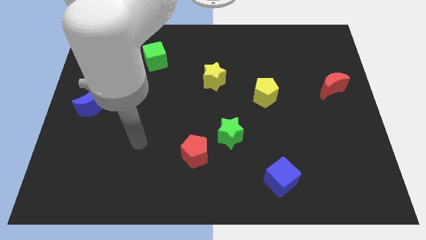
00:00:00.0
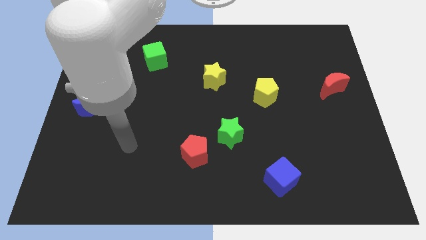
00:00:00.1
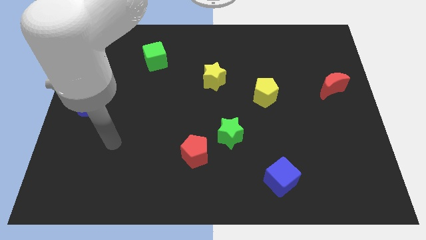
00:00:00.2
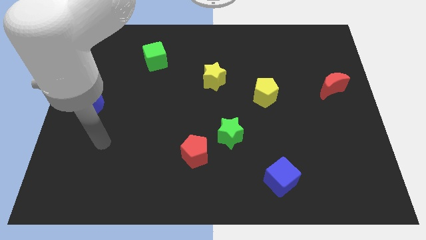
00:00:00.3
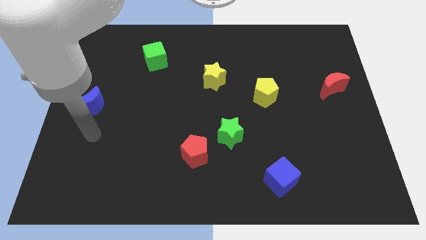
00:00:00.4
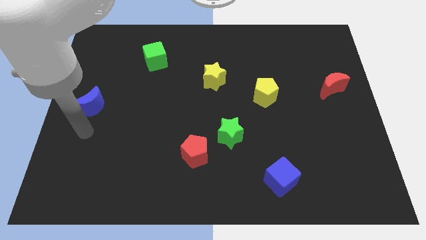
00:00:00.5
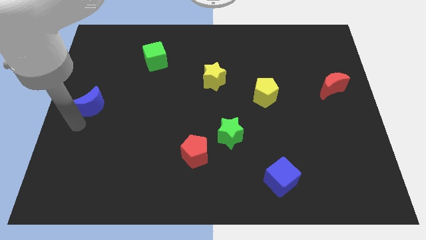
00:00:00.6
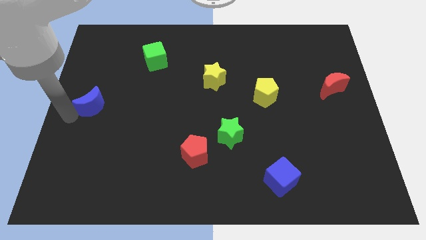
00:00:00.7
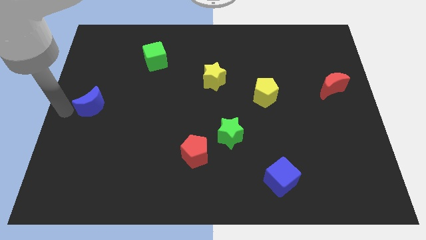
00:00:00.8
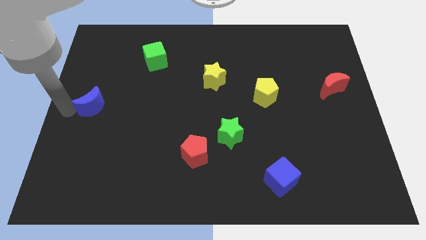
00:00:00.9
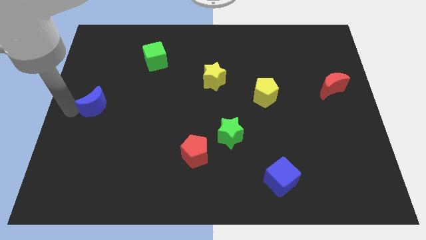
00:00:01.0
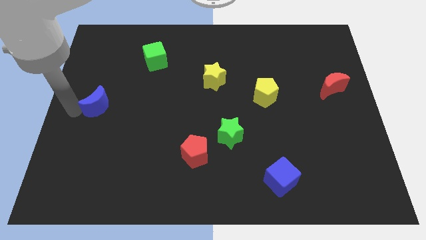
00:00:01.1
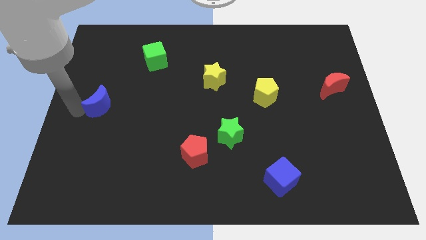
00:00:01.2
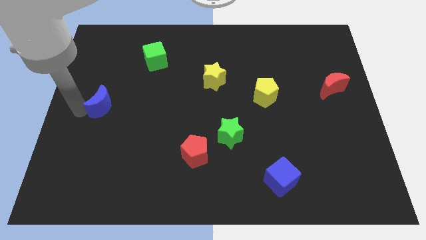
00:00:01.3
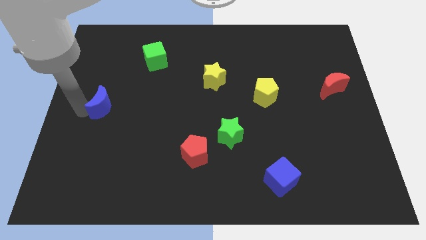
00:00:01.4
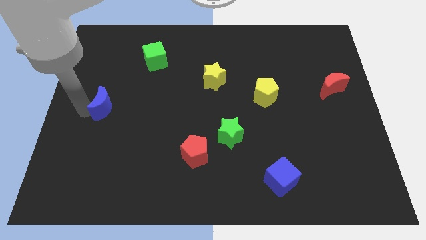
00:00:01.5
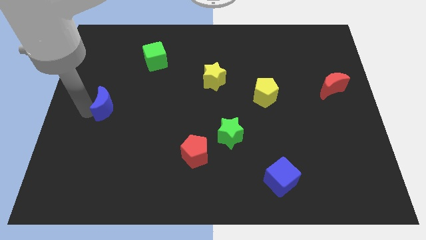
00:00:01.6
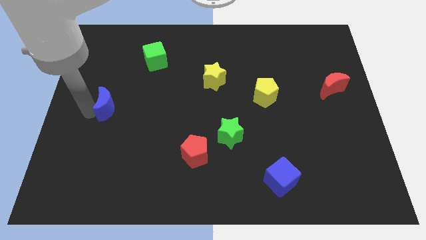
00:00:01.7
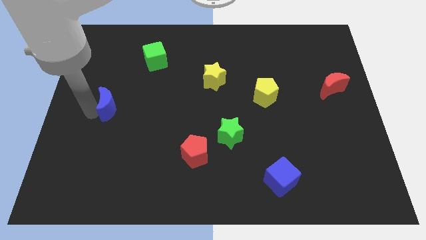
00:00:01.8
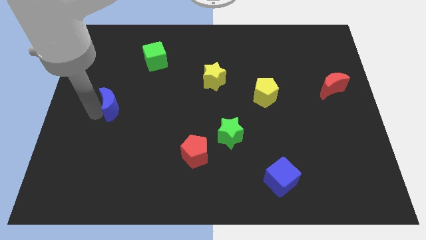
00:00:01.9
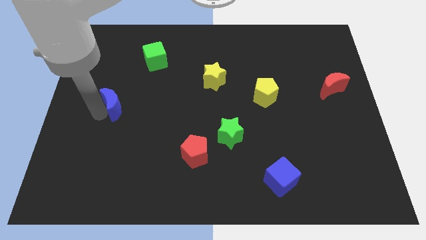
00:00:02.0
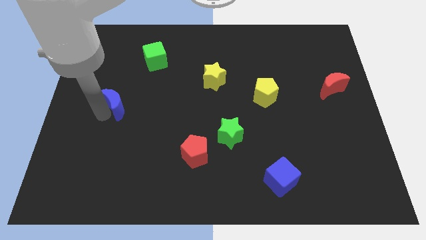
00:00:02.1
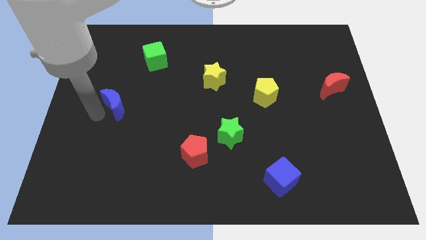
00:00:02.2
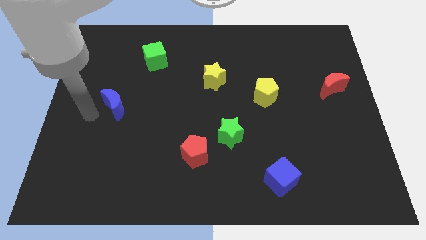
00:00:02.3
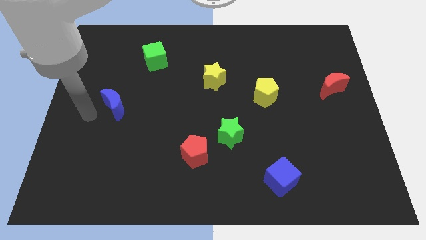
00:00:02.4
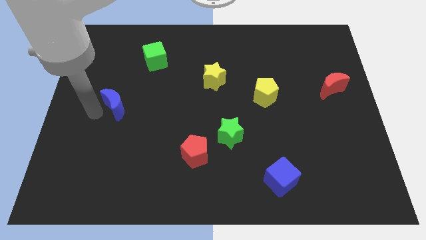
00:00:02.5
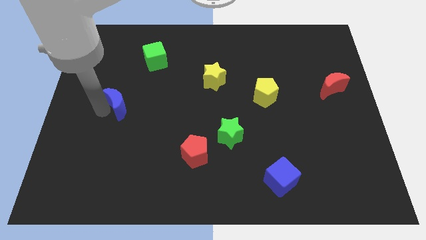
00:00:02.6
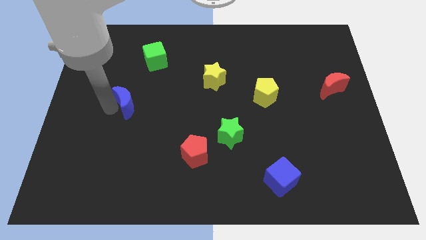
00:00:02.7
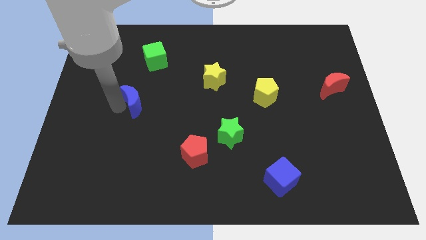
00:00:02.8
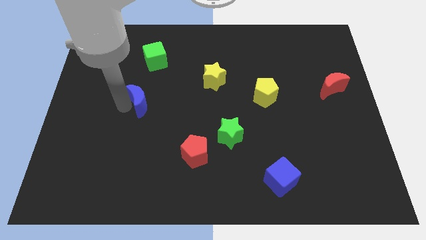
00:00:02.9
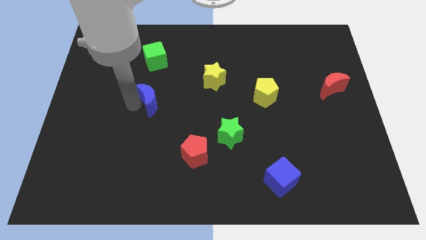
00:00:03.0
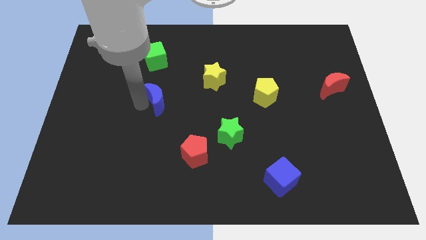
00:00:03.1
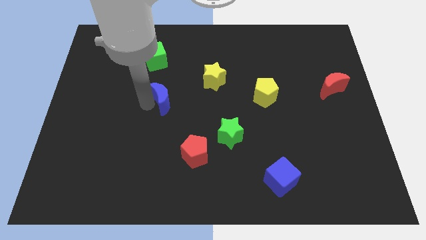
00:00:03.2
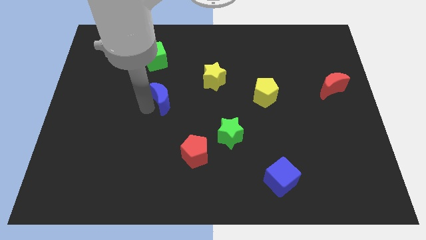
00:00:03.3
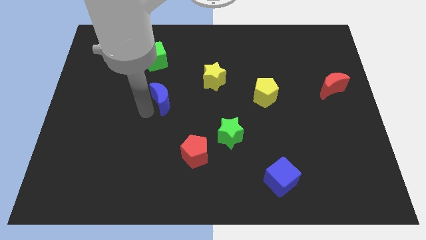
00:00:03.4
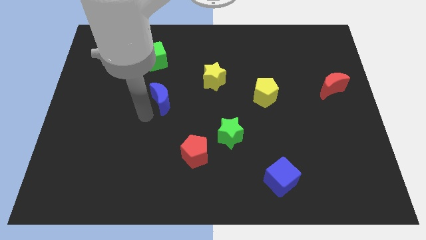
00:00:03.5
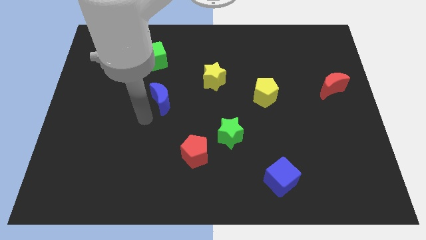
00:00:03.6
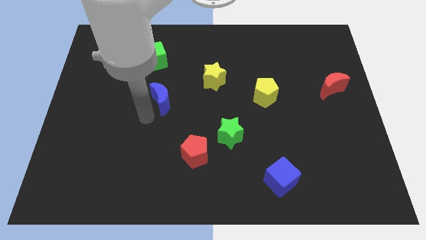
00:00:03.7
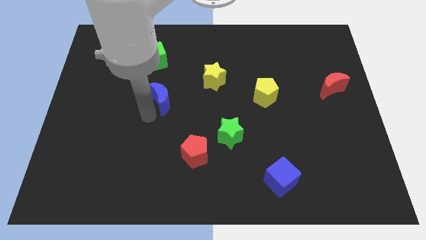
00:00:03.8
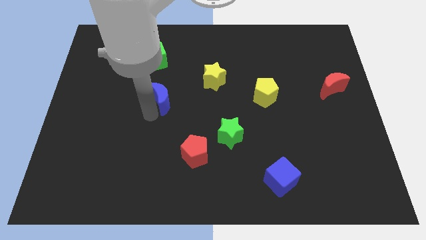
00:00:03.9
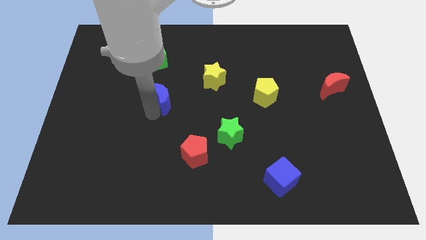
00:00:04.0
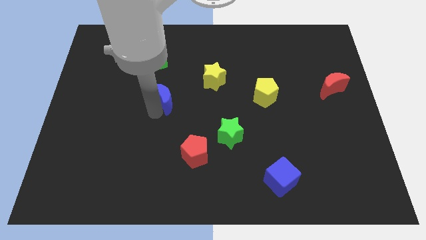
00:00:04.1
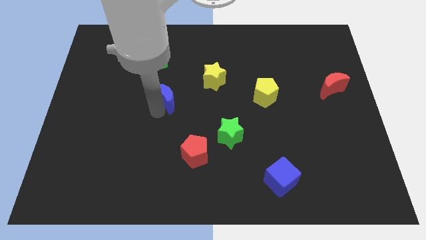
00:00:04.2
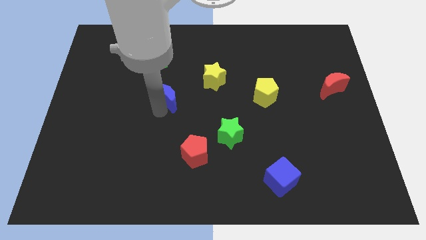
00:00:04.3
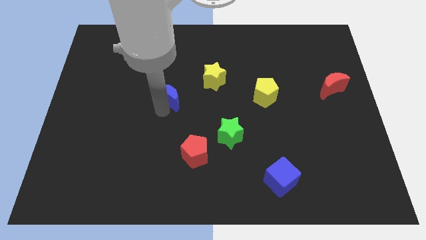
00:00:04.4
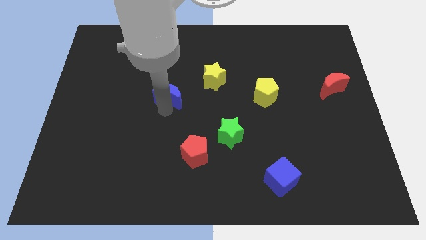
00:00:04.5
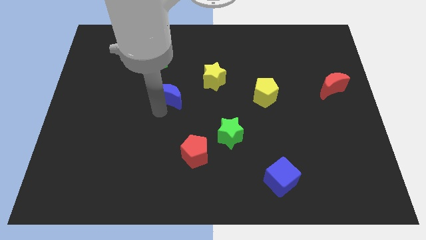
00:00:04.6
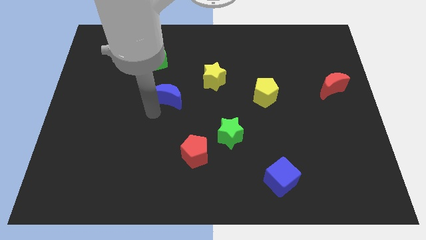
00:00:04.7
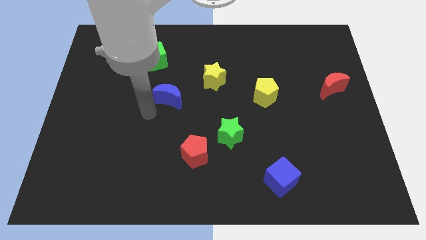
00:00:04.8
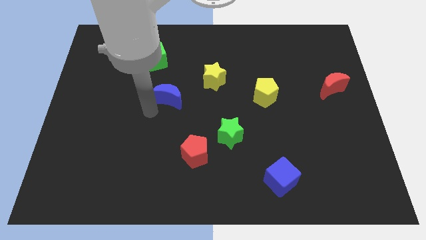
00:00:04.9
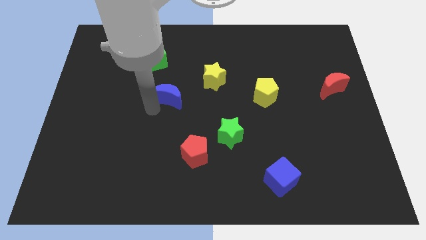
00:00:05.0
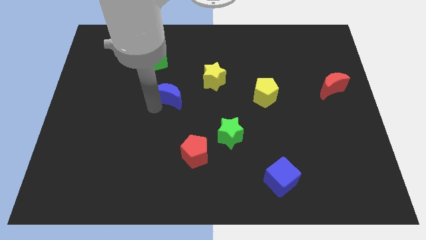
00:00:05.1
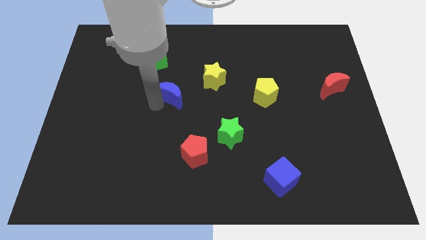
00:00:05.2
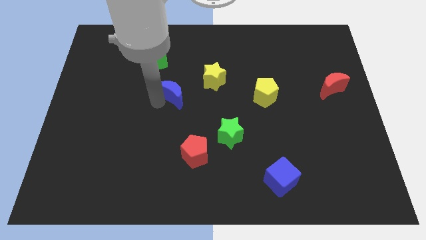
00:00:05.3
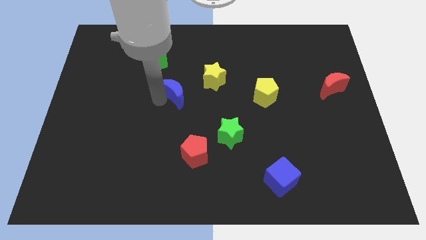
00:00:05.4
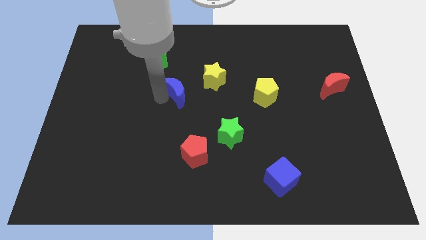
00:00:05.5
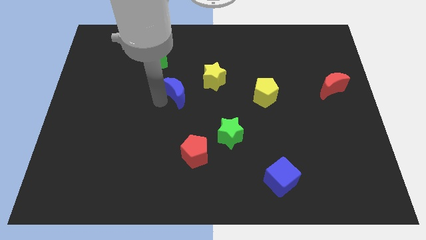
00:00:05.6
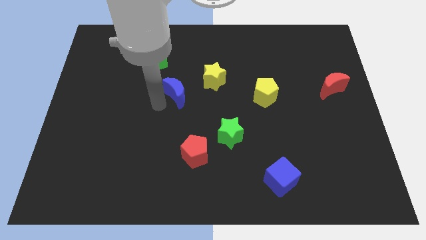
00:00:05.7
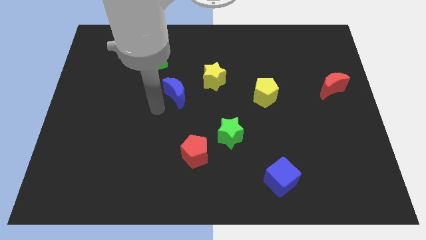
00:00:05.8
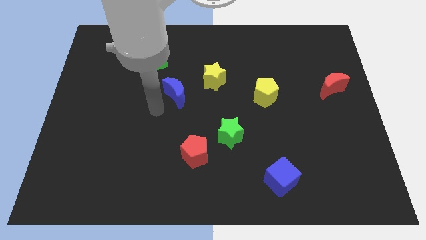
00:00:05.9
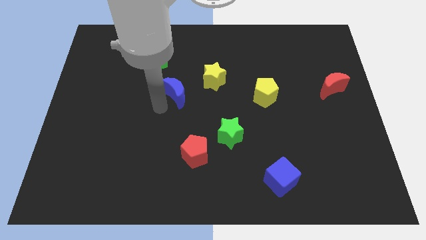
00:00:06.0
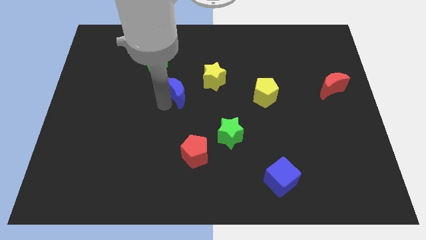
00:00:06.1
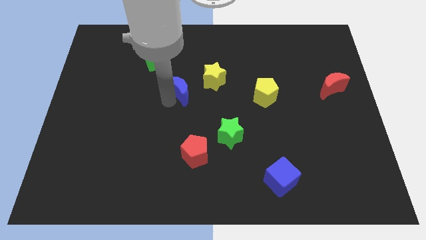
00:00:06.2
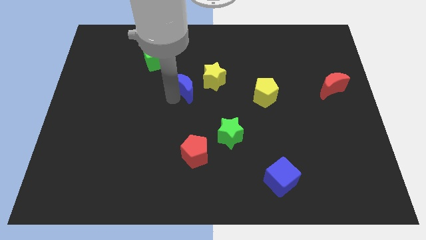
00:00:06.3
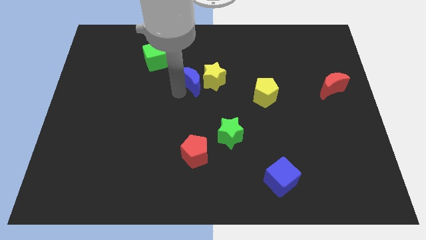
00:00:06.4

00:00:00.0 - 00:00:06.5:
move the blue moon close to the yellow star

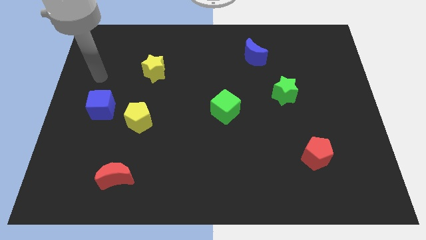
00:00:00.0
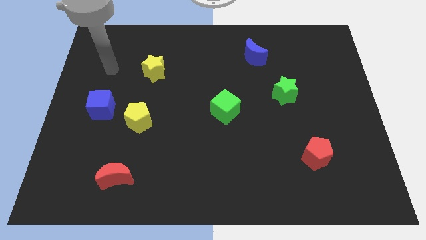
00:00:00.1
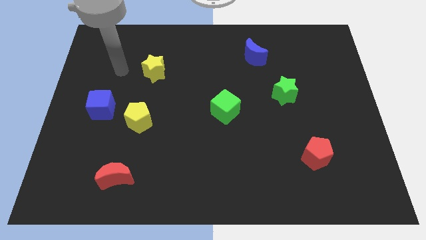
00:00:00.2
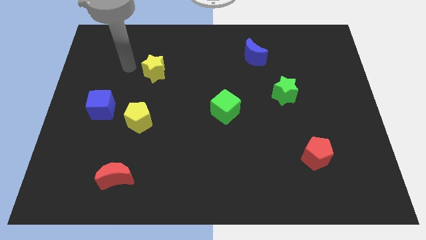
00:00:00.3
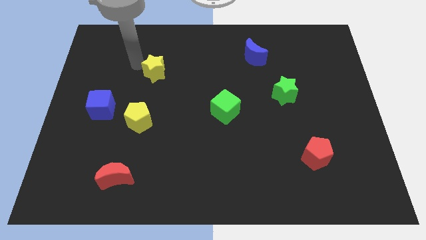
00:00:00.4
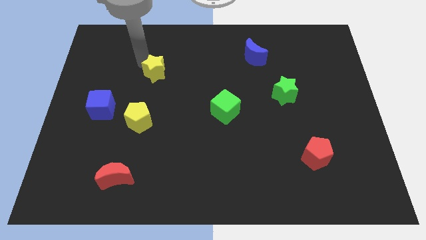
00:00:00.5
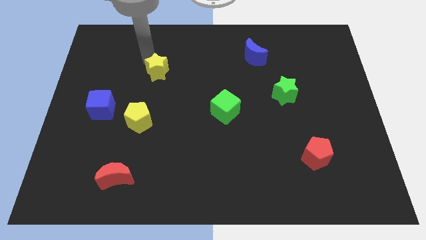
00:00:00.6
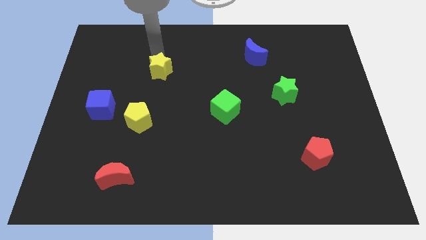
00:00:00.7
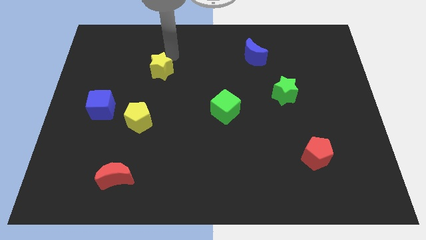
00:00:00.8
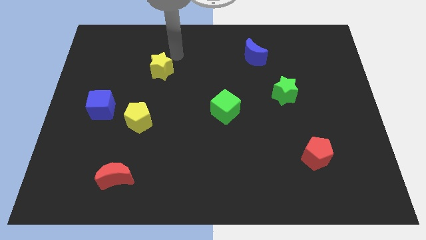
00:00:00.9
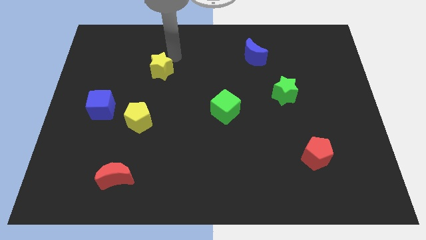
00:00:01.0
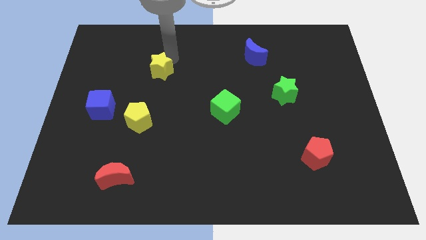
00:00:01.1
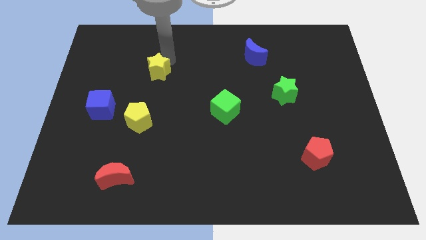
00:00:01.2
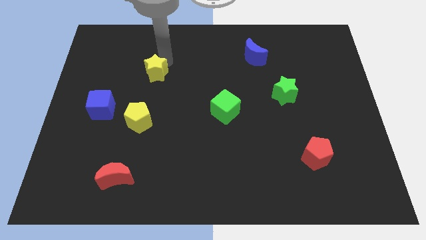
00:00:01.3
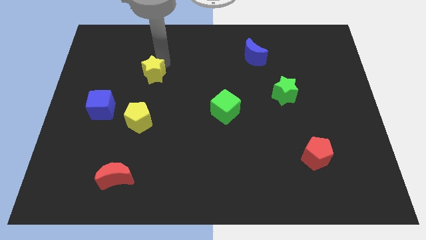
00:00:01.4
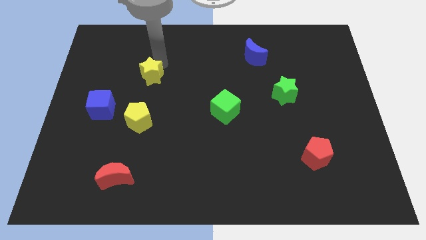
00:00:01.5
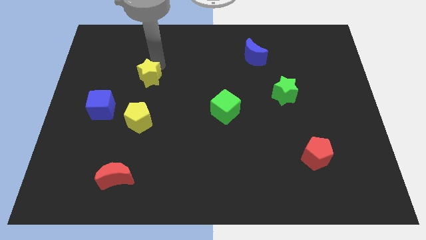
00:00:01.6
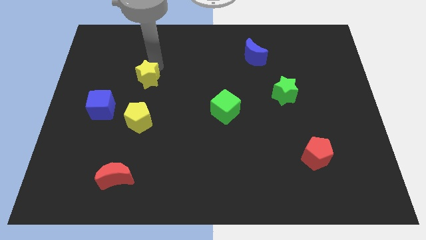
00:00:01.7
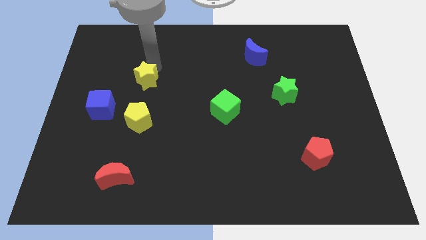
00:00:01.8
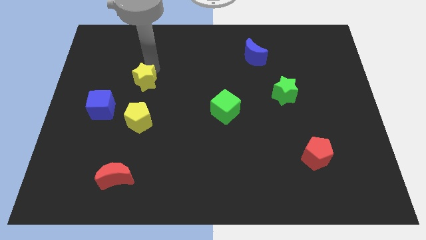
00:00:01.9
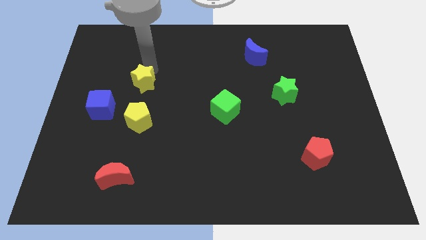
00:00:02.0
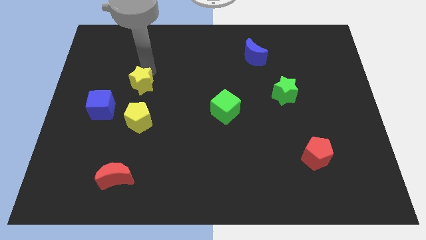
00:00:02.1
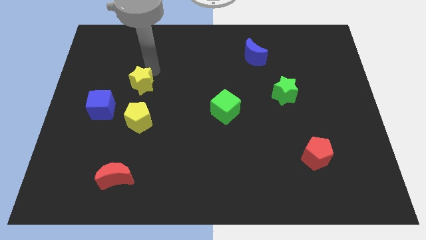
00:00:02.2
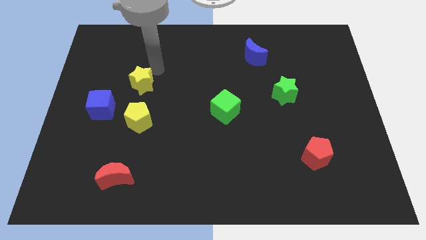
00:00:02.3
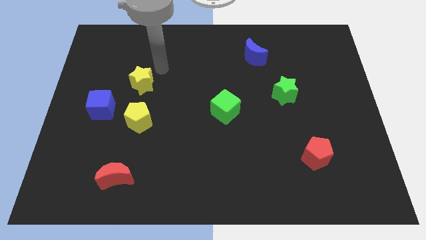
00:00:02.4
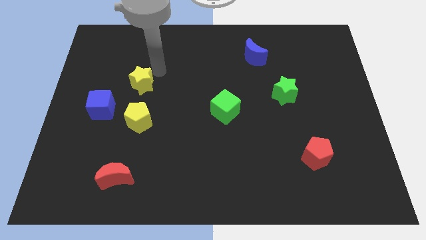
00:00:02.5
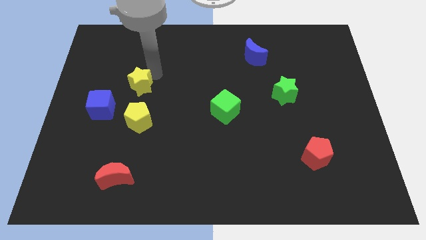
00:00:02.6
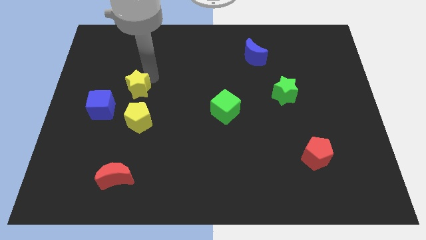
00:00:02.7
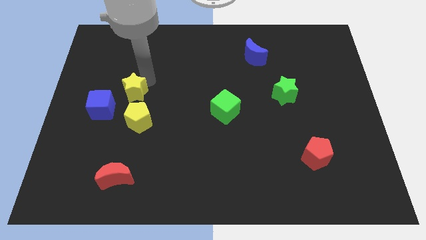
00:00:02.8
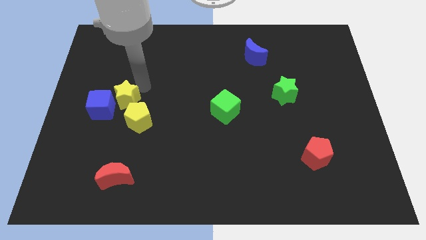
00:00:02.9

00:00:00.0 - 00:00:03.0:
put the yellow star close to the blue cube
